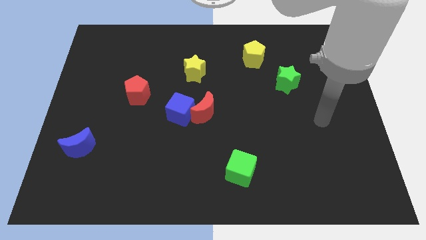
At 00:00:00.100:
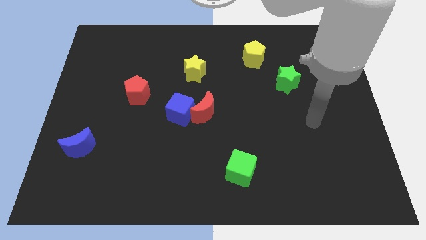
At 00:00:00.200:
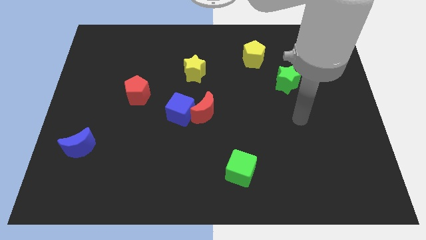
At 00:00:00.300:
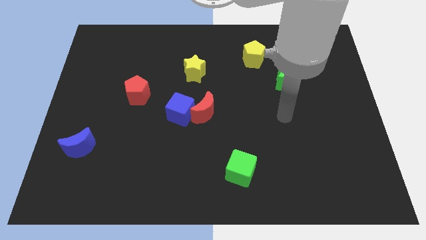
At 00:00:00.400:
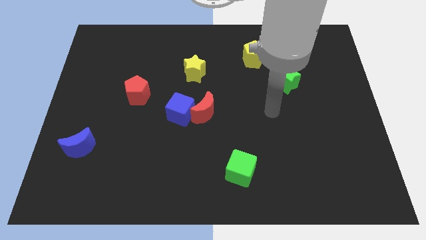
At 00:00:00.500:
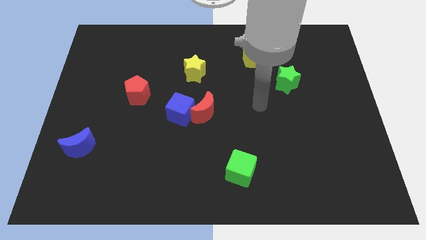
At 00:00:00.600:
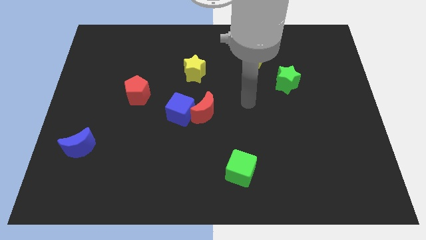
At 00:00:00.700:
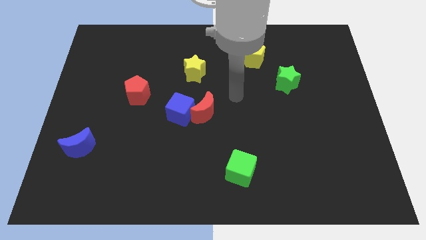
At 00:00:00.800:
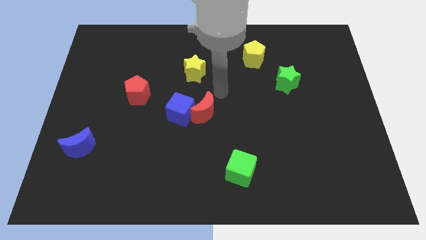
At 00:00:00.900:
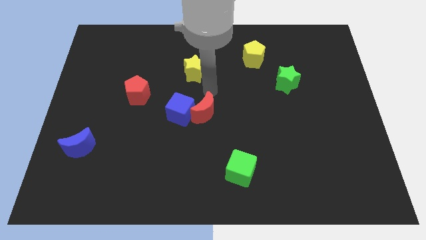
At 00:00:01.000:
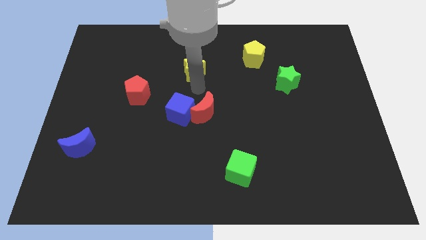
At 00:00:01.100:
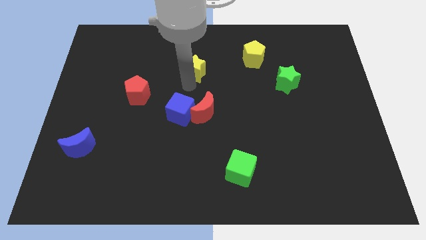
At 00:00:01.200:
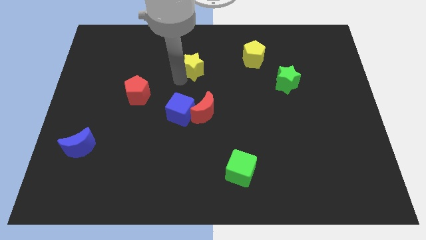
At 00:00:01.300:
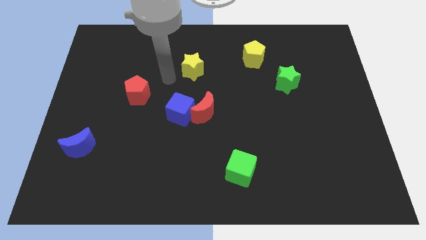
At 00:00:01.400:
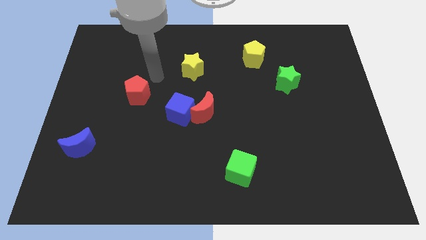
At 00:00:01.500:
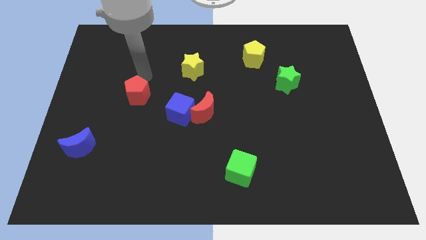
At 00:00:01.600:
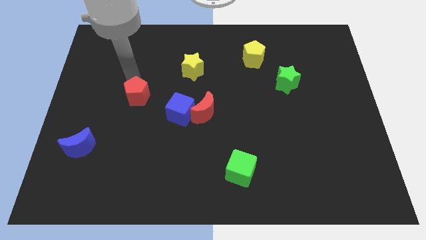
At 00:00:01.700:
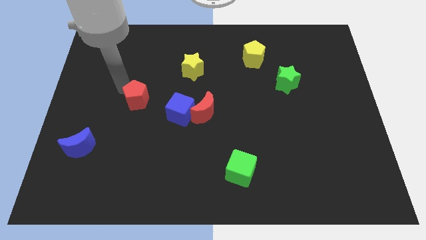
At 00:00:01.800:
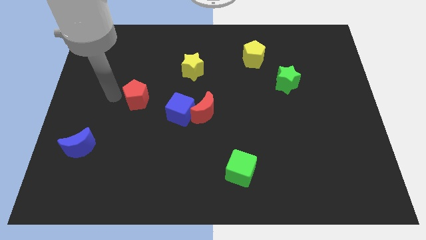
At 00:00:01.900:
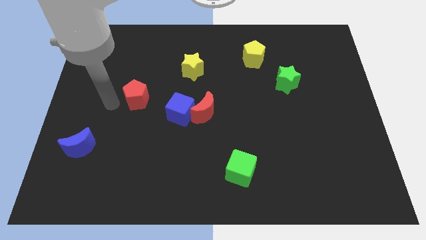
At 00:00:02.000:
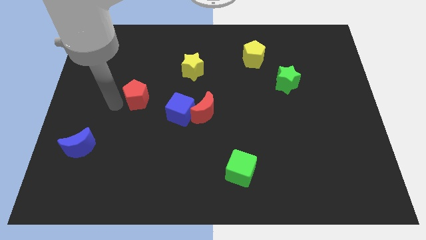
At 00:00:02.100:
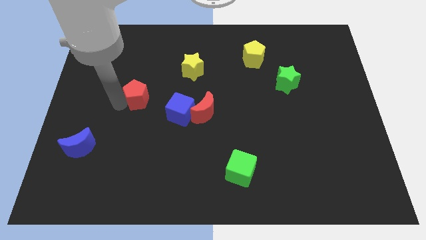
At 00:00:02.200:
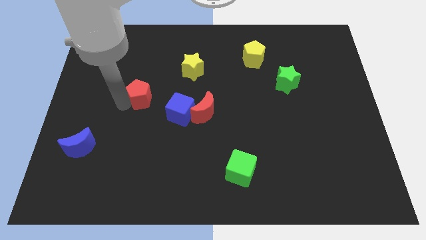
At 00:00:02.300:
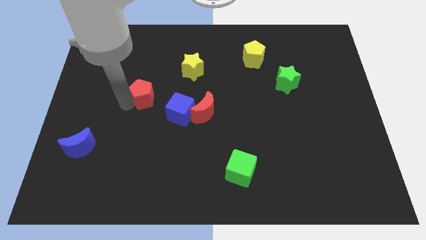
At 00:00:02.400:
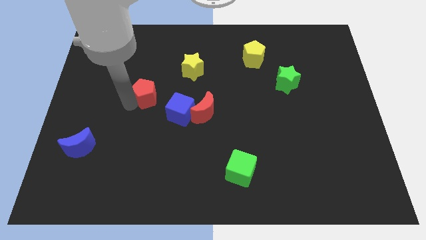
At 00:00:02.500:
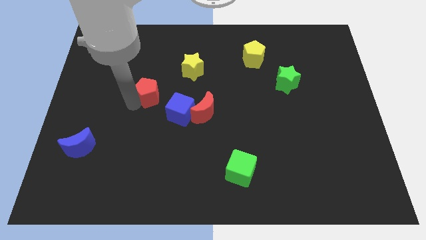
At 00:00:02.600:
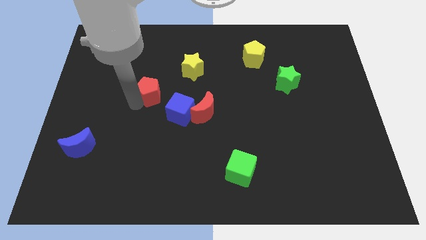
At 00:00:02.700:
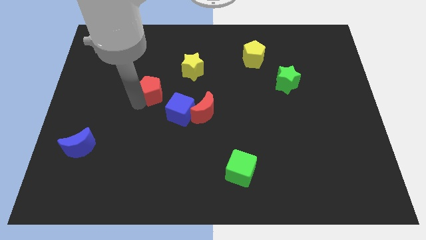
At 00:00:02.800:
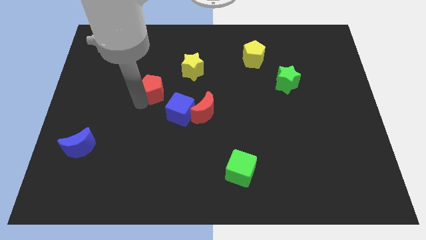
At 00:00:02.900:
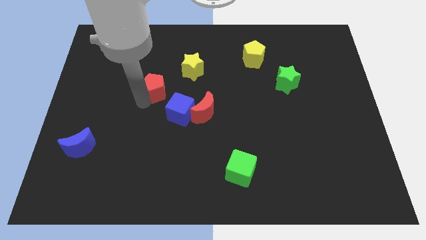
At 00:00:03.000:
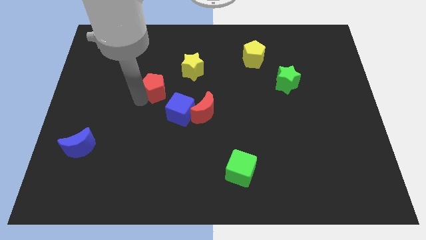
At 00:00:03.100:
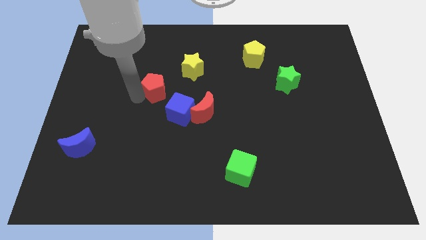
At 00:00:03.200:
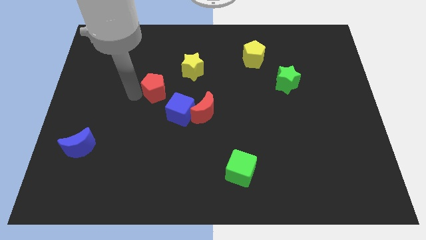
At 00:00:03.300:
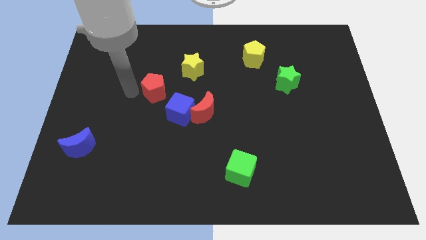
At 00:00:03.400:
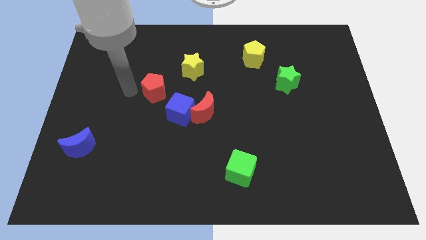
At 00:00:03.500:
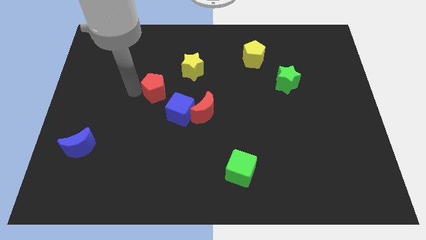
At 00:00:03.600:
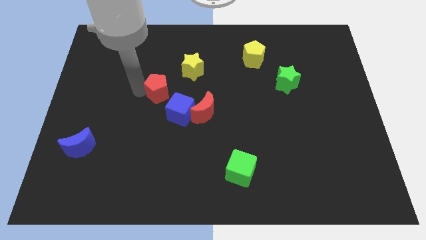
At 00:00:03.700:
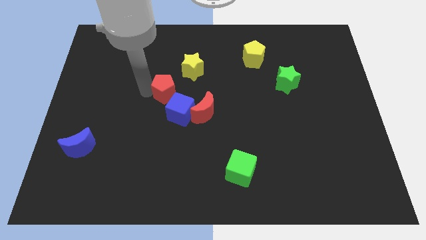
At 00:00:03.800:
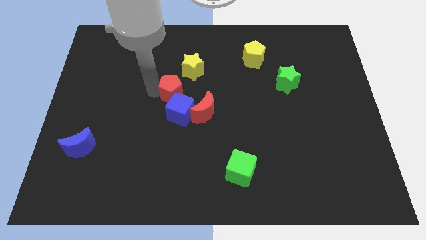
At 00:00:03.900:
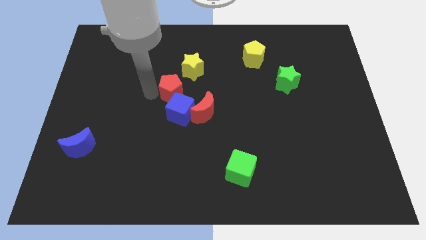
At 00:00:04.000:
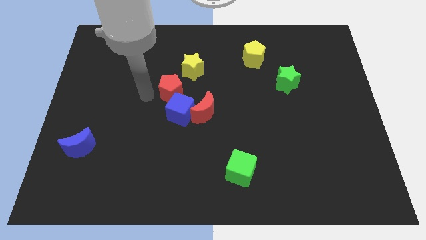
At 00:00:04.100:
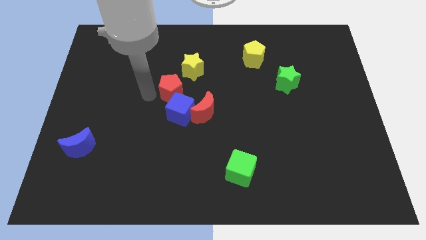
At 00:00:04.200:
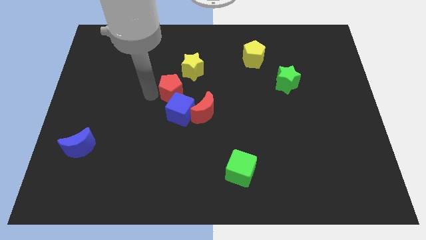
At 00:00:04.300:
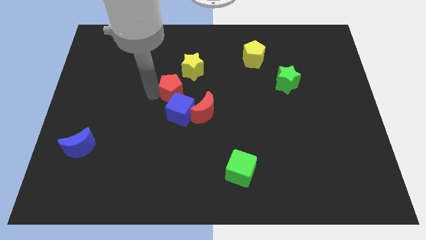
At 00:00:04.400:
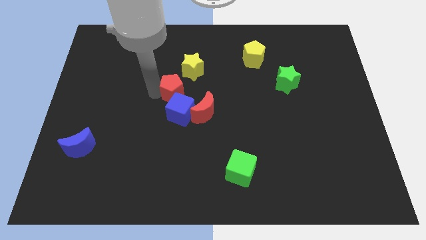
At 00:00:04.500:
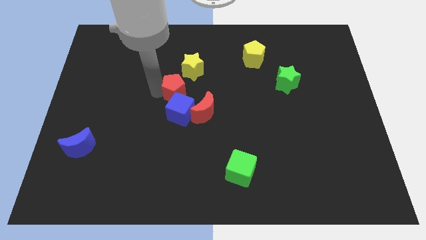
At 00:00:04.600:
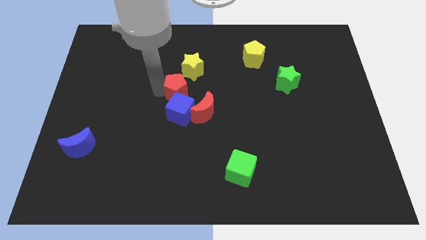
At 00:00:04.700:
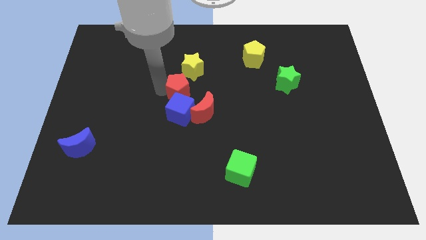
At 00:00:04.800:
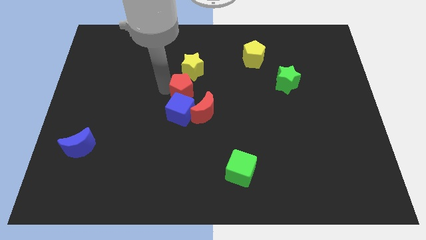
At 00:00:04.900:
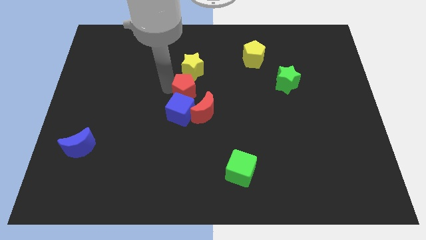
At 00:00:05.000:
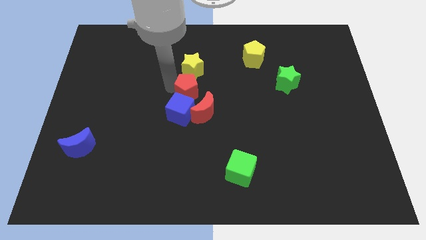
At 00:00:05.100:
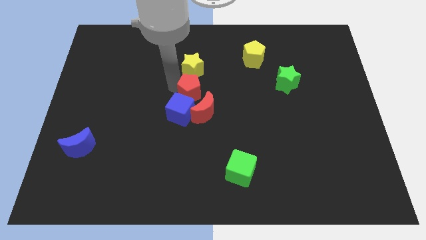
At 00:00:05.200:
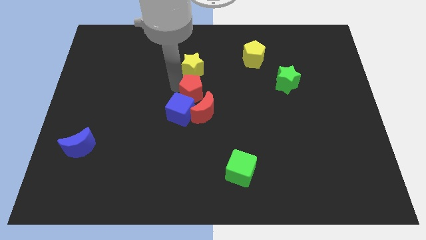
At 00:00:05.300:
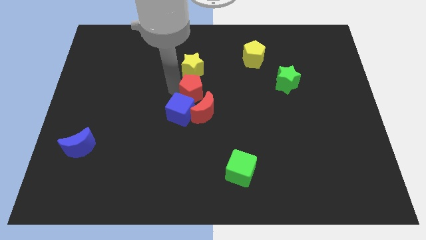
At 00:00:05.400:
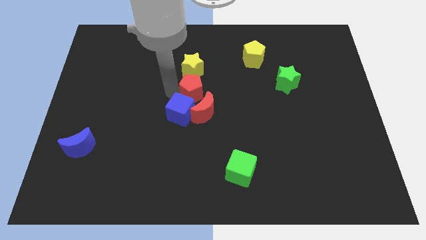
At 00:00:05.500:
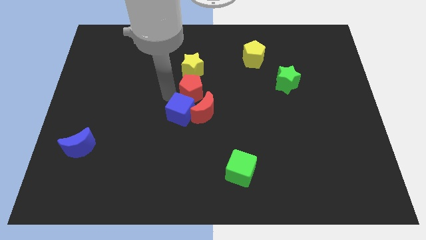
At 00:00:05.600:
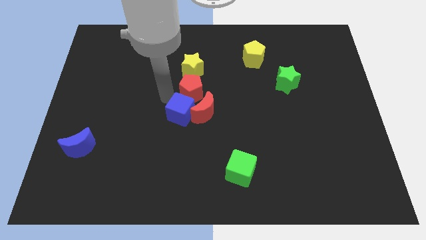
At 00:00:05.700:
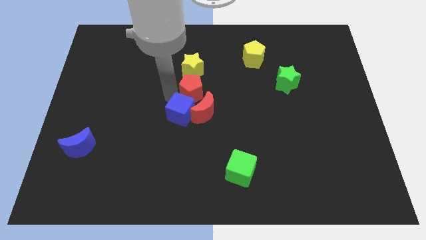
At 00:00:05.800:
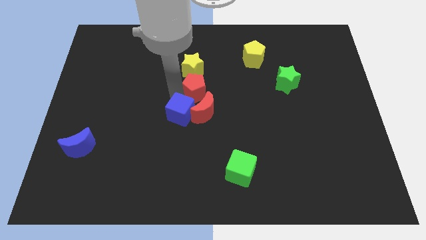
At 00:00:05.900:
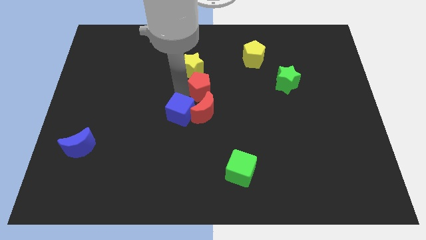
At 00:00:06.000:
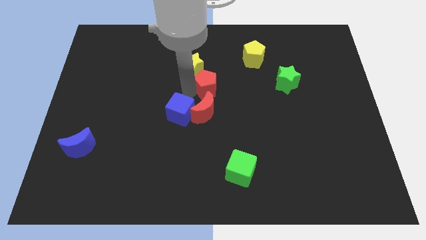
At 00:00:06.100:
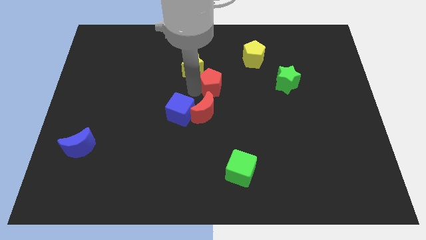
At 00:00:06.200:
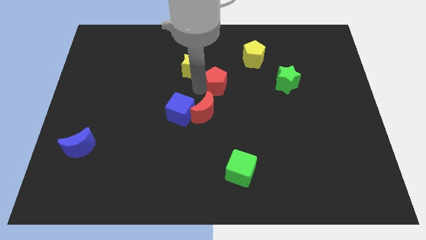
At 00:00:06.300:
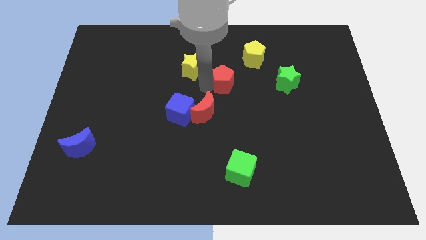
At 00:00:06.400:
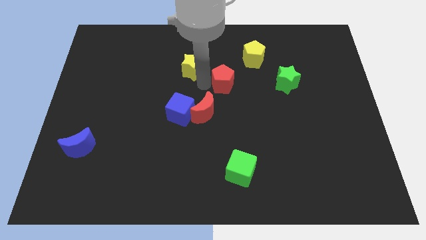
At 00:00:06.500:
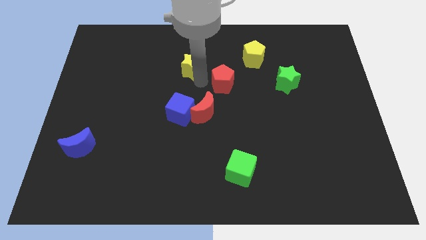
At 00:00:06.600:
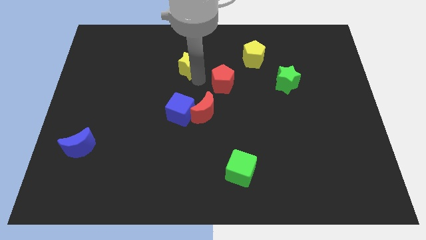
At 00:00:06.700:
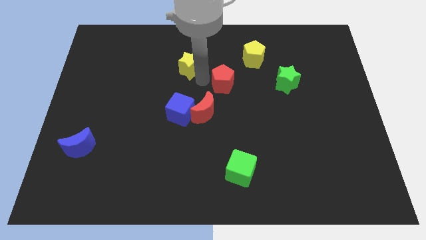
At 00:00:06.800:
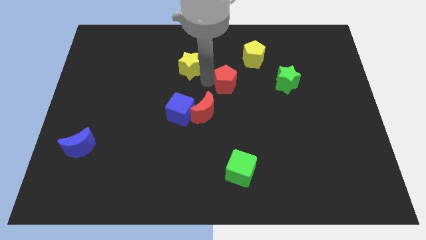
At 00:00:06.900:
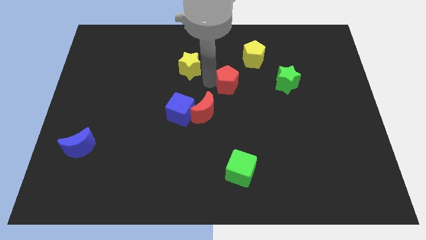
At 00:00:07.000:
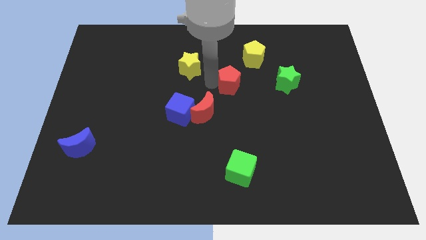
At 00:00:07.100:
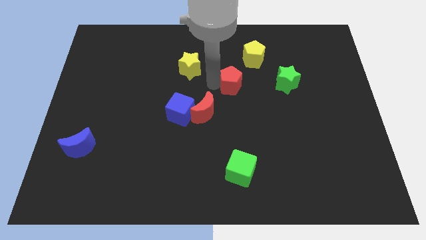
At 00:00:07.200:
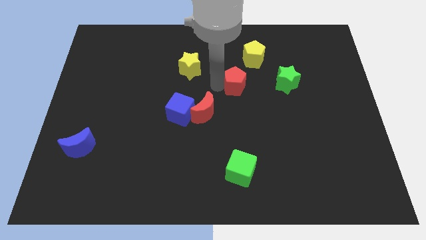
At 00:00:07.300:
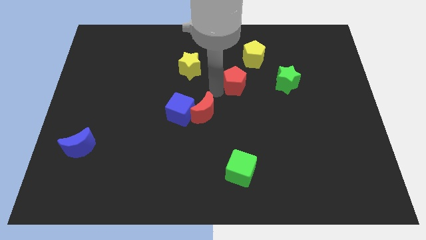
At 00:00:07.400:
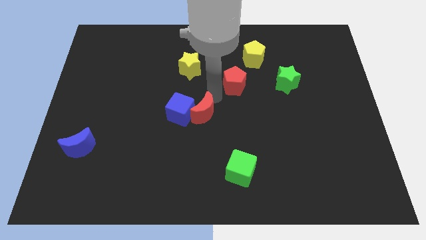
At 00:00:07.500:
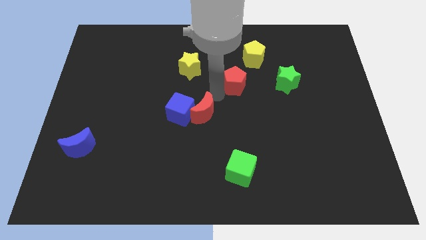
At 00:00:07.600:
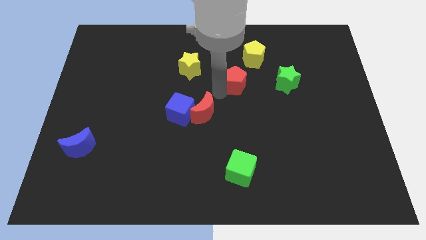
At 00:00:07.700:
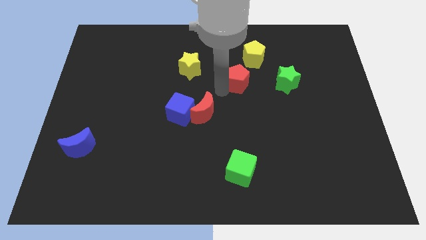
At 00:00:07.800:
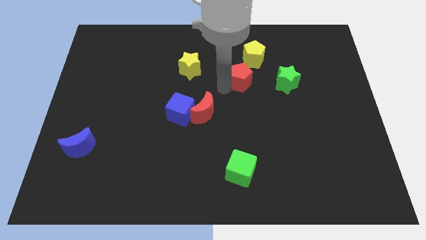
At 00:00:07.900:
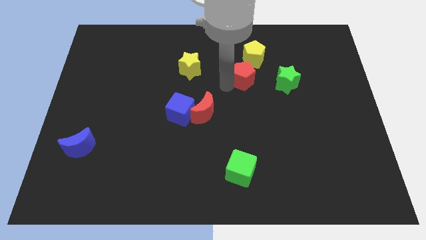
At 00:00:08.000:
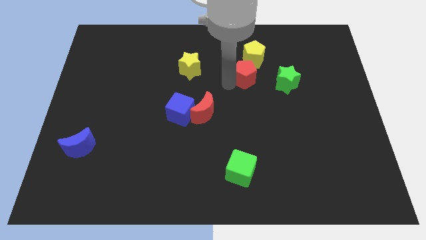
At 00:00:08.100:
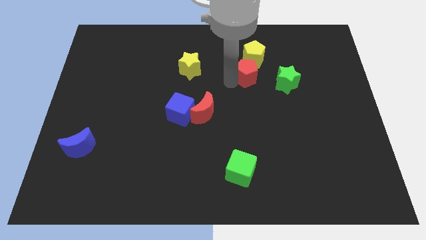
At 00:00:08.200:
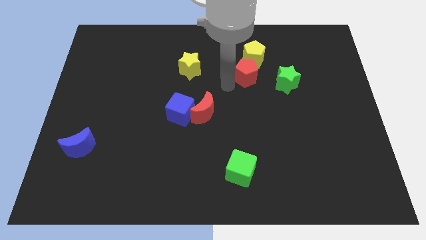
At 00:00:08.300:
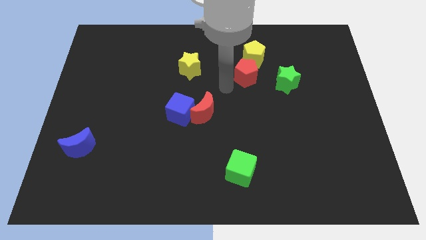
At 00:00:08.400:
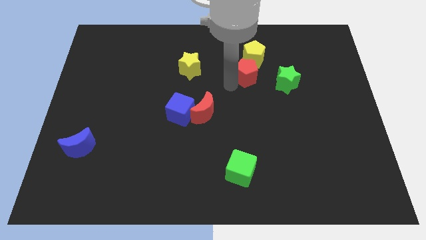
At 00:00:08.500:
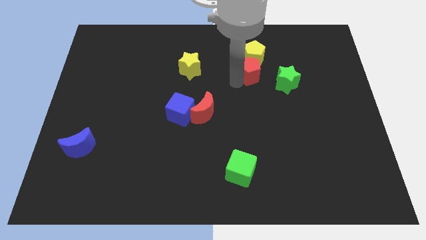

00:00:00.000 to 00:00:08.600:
push the red pentagon to the top left side of the green star
